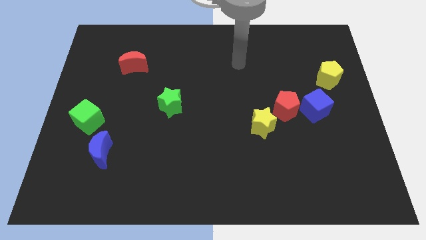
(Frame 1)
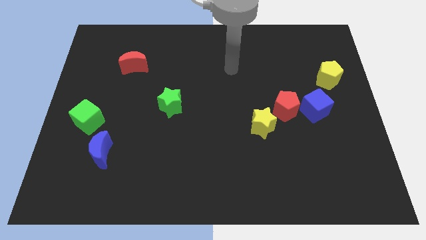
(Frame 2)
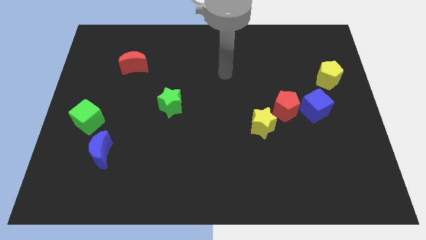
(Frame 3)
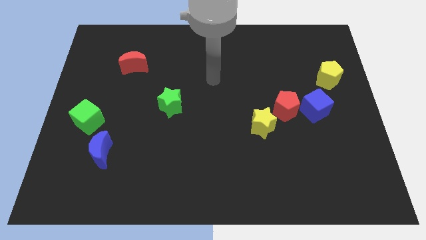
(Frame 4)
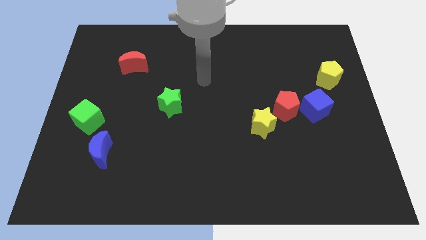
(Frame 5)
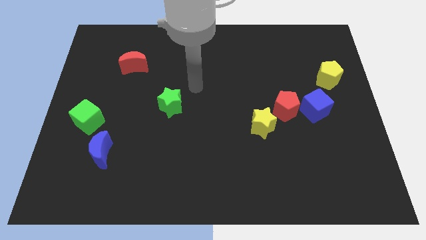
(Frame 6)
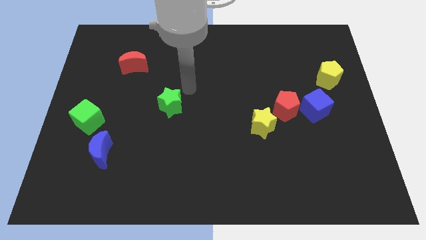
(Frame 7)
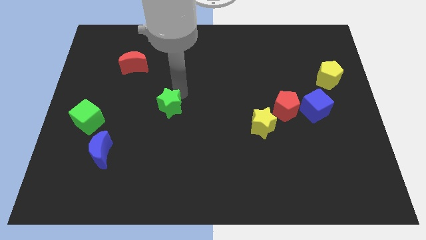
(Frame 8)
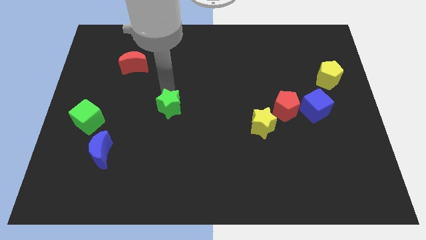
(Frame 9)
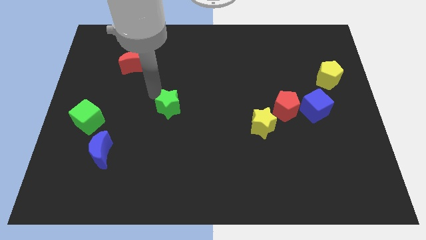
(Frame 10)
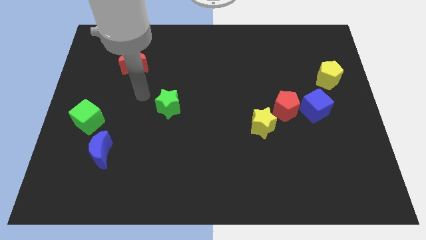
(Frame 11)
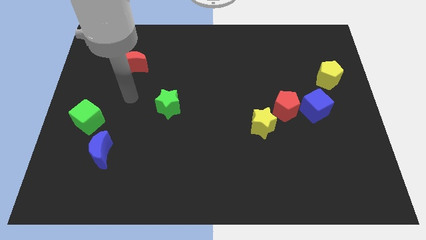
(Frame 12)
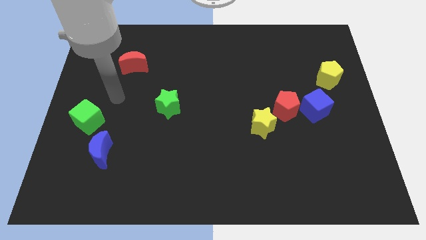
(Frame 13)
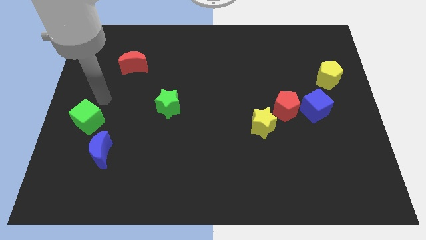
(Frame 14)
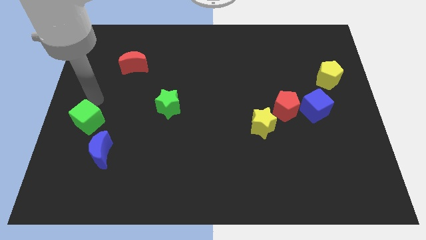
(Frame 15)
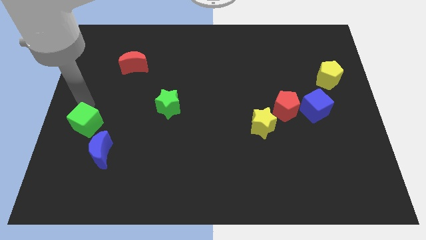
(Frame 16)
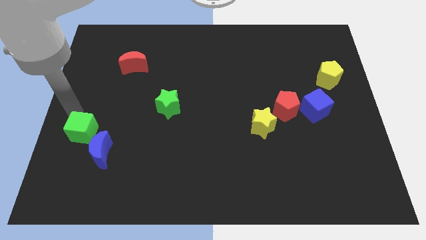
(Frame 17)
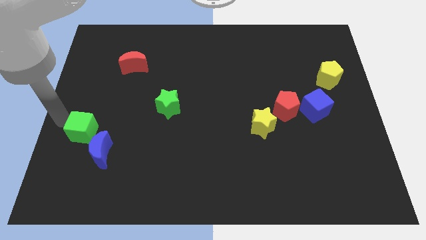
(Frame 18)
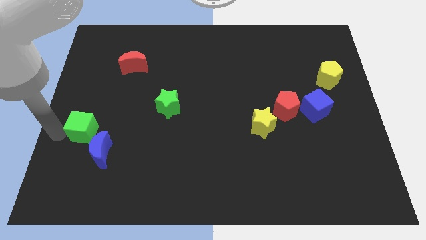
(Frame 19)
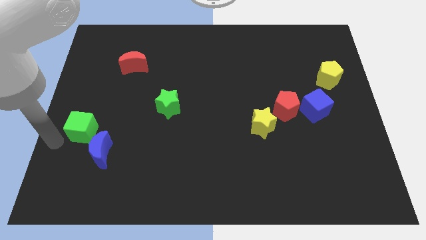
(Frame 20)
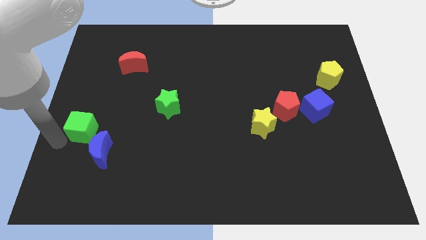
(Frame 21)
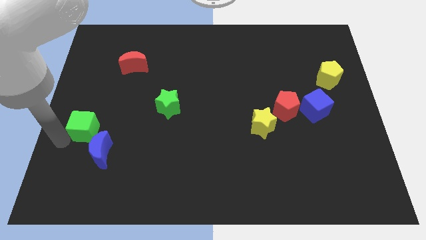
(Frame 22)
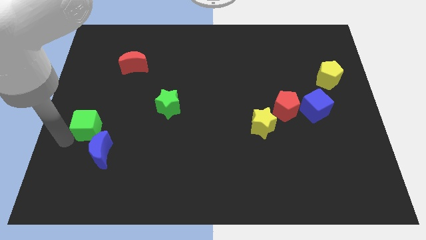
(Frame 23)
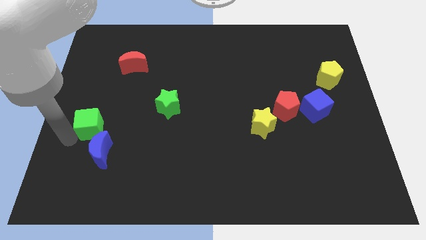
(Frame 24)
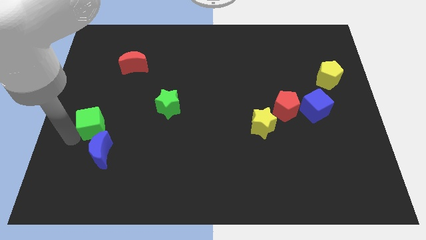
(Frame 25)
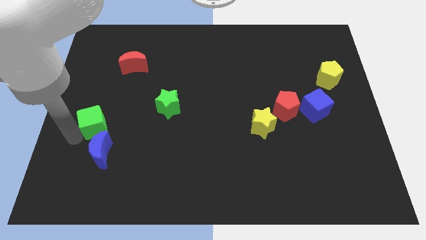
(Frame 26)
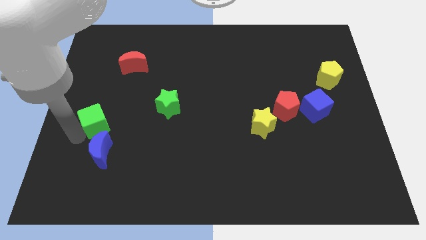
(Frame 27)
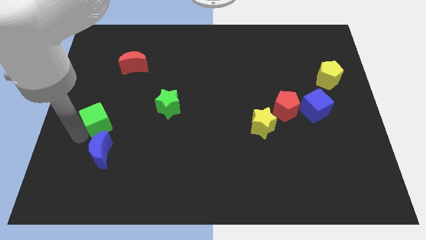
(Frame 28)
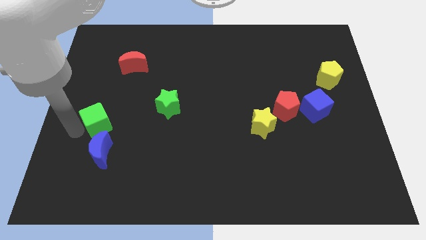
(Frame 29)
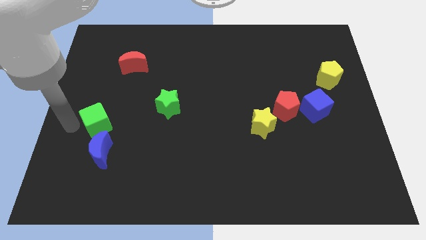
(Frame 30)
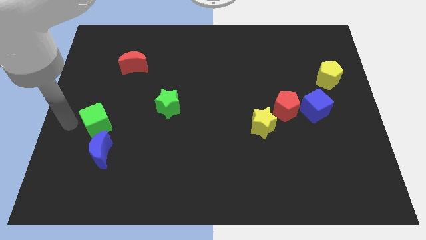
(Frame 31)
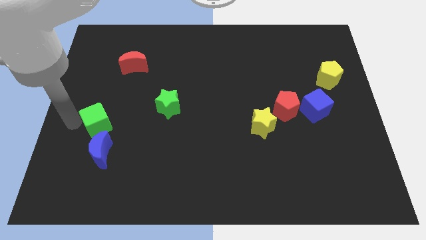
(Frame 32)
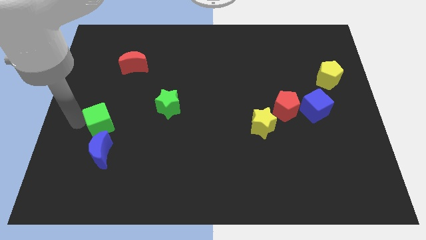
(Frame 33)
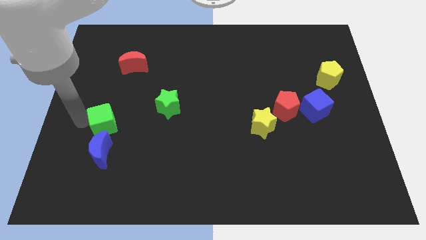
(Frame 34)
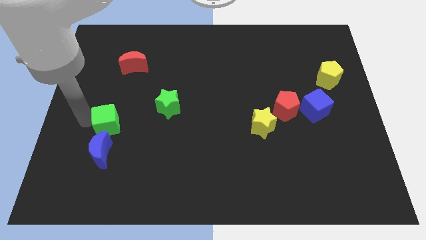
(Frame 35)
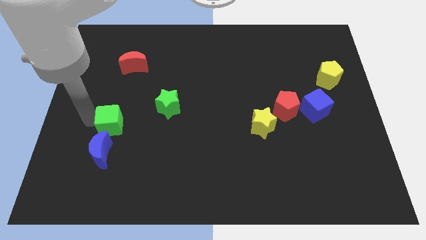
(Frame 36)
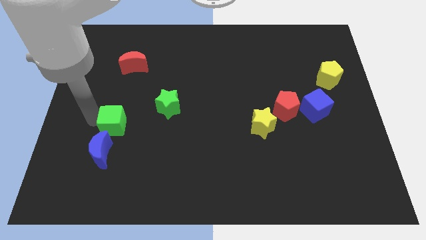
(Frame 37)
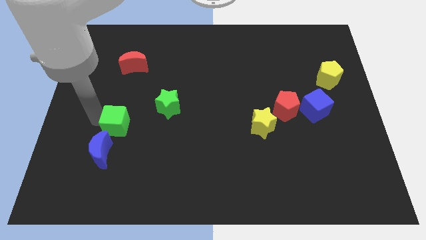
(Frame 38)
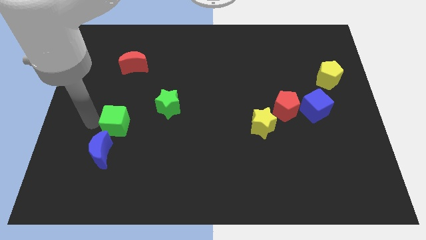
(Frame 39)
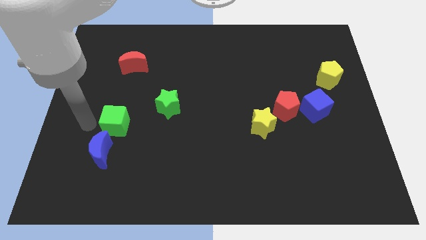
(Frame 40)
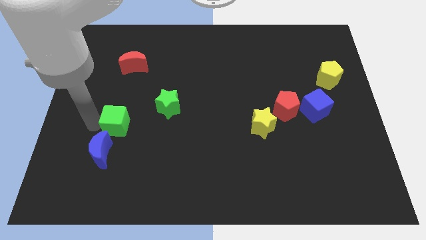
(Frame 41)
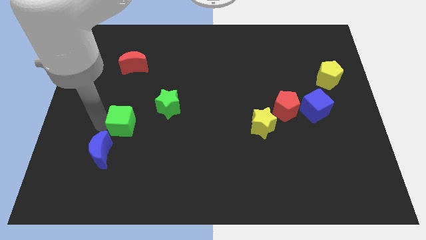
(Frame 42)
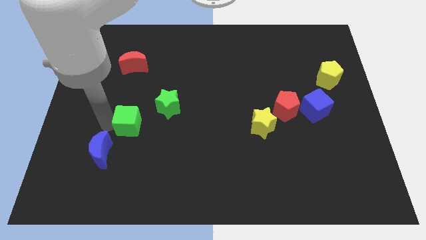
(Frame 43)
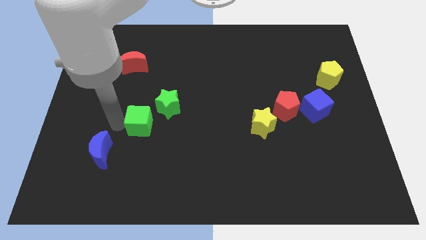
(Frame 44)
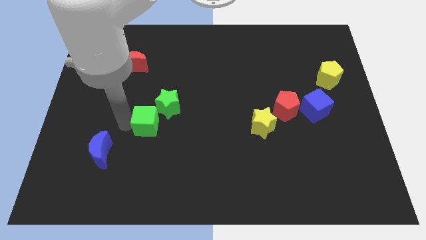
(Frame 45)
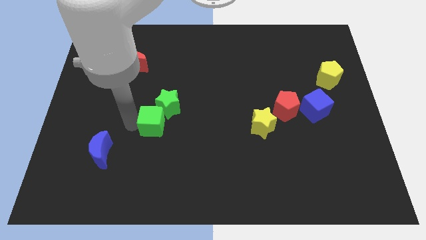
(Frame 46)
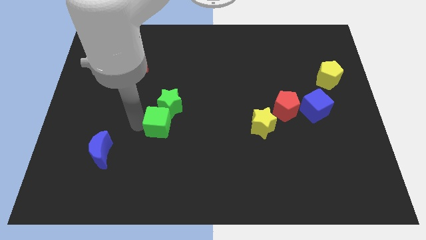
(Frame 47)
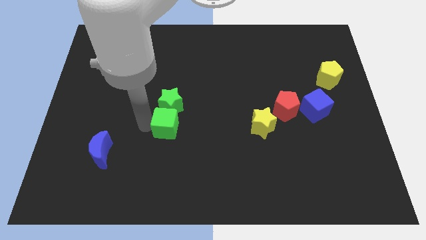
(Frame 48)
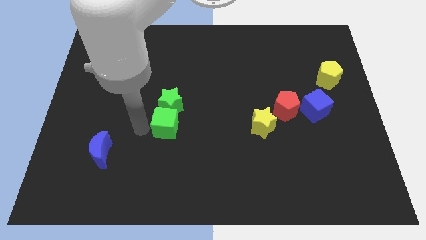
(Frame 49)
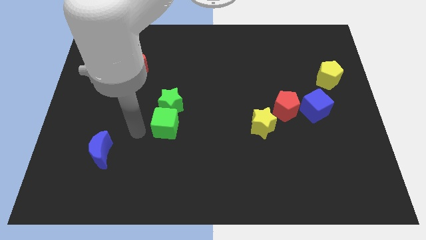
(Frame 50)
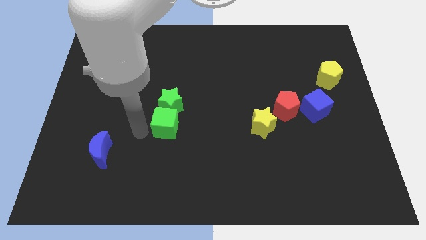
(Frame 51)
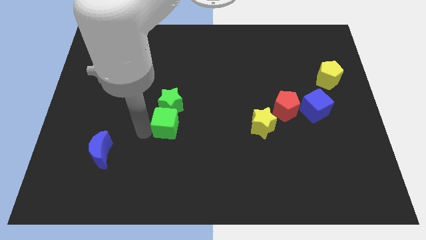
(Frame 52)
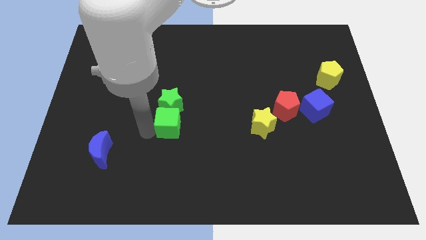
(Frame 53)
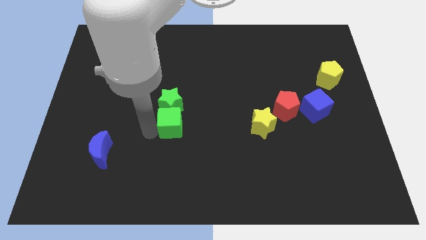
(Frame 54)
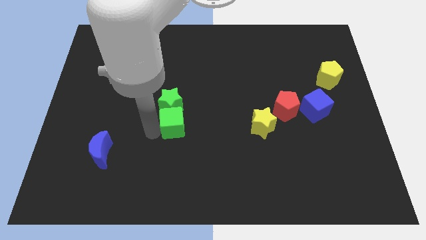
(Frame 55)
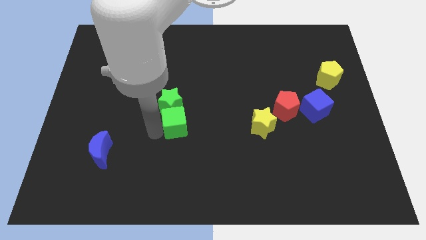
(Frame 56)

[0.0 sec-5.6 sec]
move the green cube right

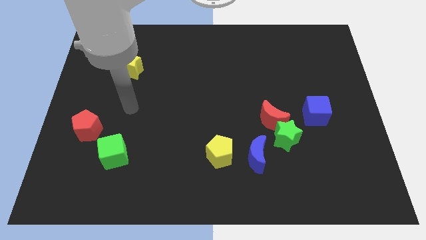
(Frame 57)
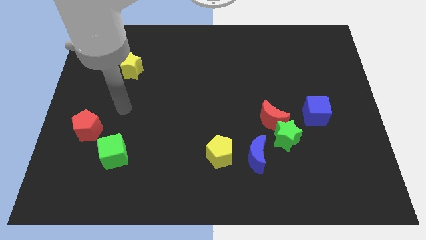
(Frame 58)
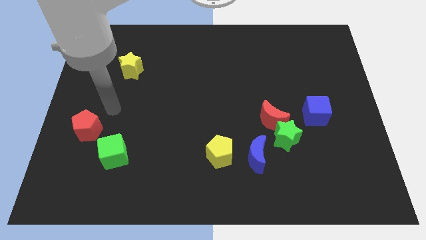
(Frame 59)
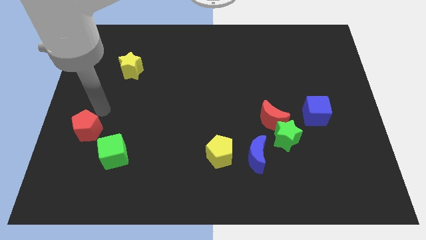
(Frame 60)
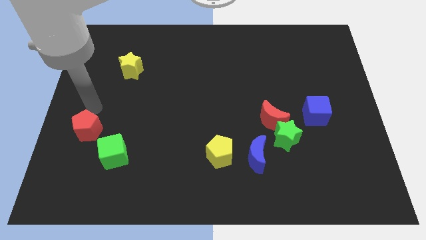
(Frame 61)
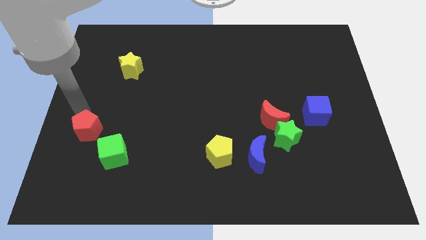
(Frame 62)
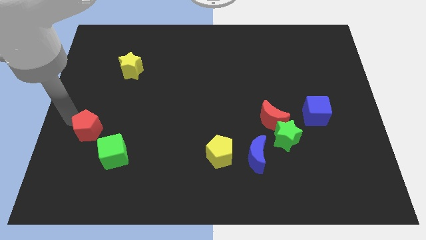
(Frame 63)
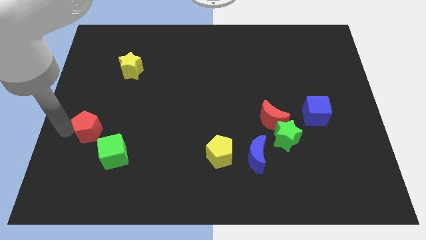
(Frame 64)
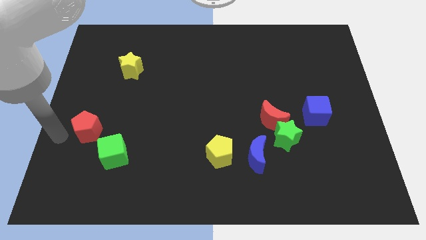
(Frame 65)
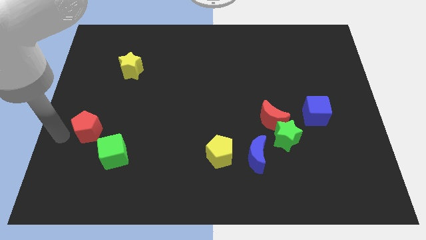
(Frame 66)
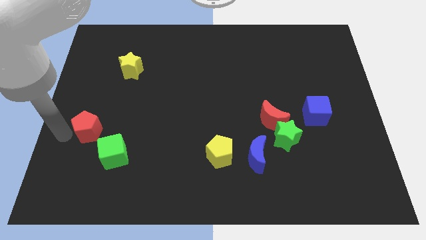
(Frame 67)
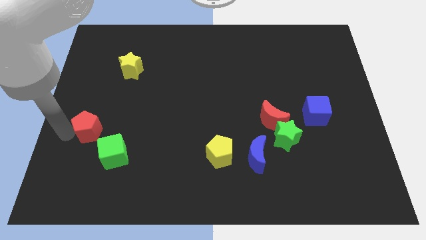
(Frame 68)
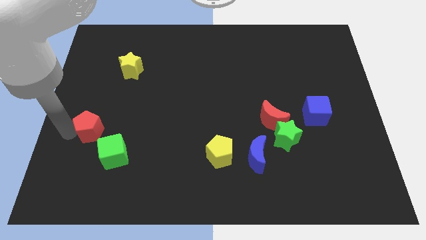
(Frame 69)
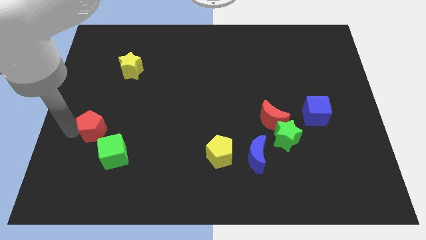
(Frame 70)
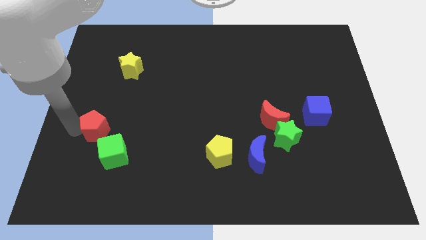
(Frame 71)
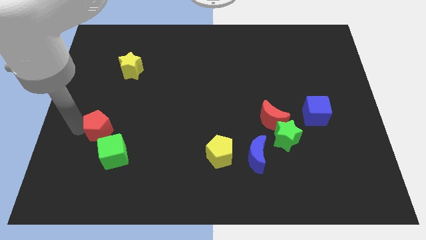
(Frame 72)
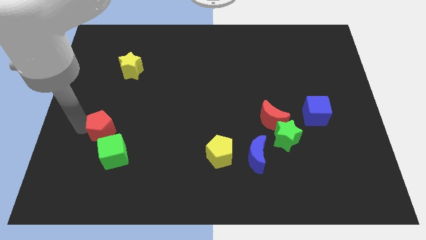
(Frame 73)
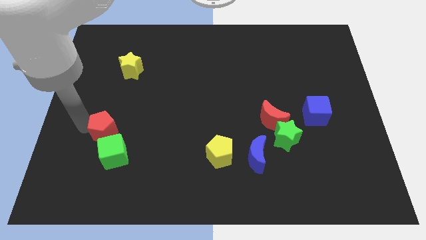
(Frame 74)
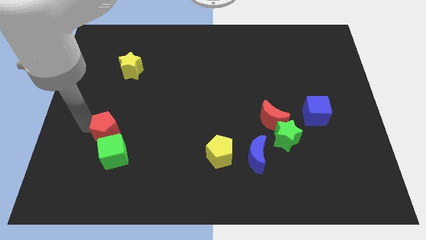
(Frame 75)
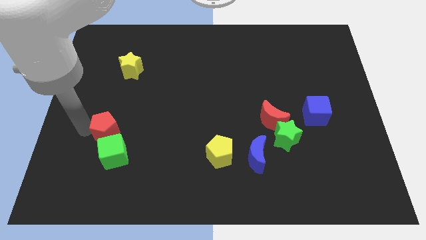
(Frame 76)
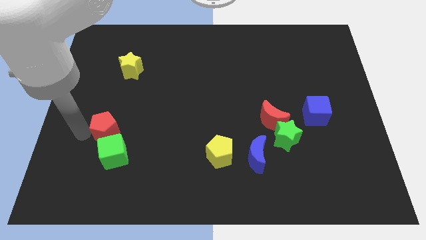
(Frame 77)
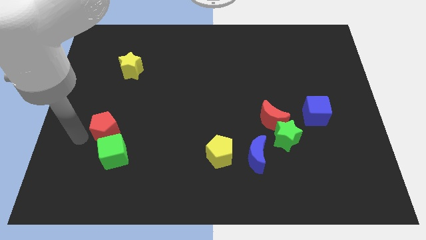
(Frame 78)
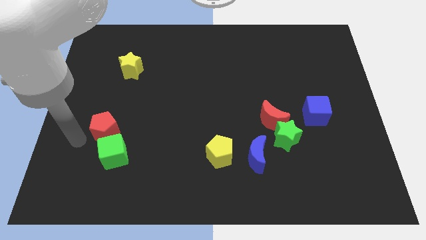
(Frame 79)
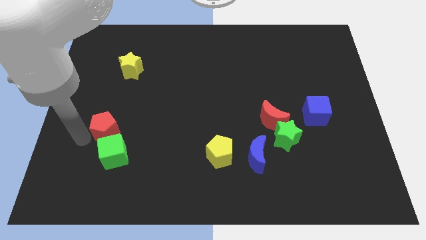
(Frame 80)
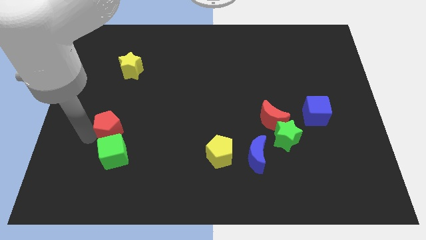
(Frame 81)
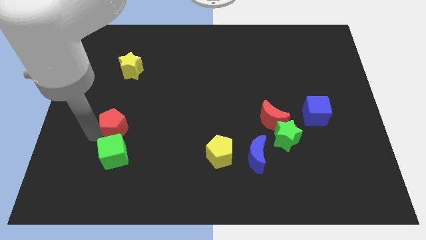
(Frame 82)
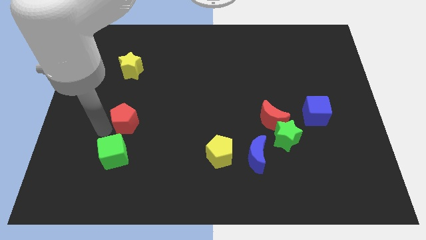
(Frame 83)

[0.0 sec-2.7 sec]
move the red pentagon to the right a little
